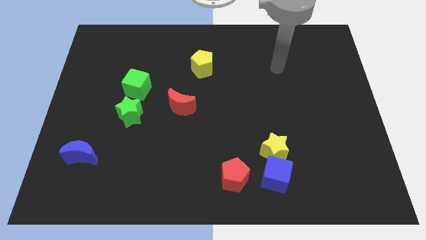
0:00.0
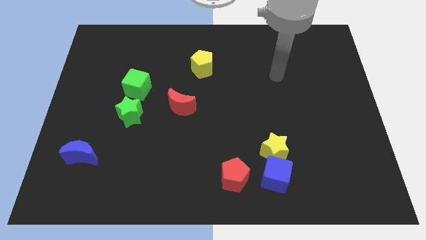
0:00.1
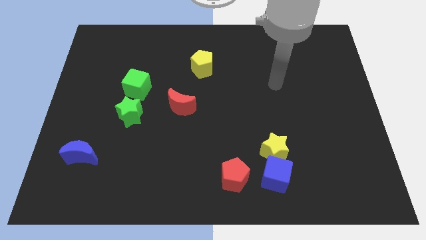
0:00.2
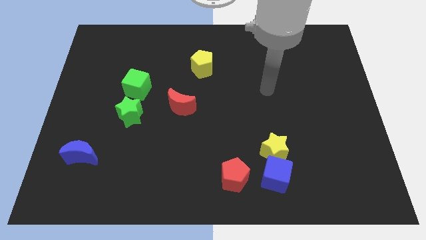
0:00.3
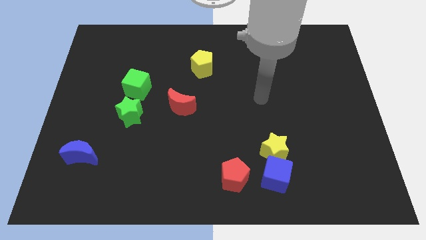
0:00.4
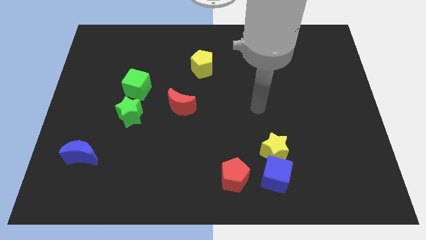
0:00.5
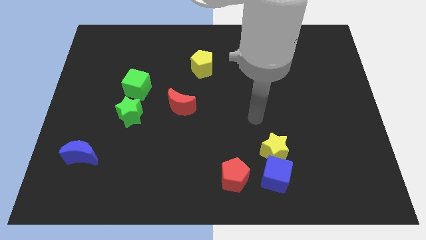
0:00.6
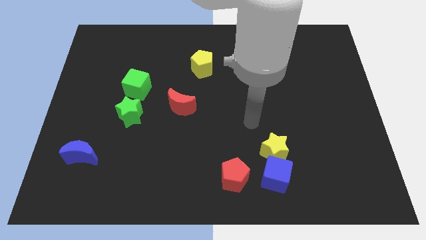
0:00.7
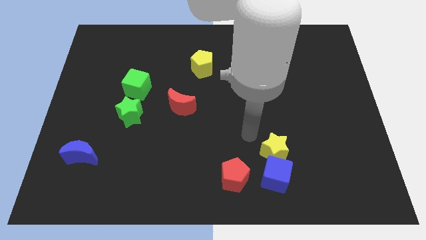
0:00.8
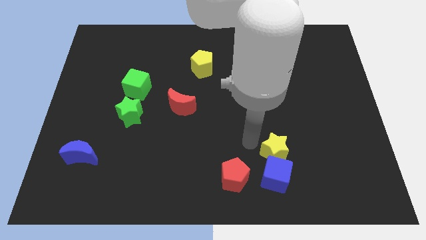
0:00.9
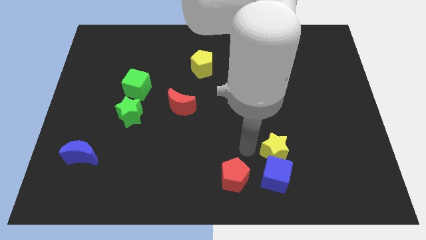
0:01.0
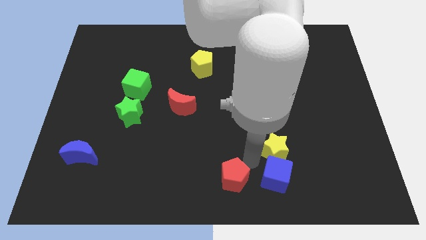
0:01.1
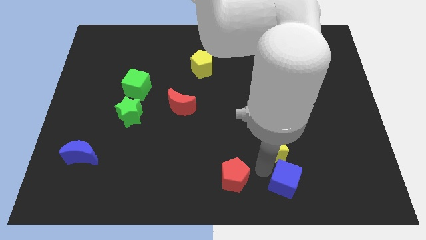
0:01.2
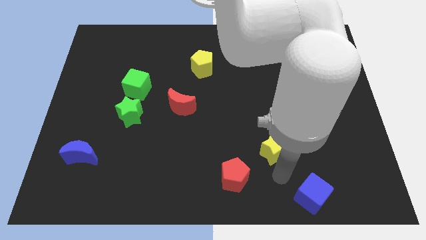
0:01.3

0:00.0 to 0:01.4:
separate the yellow star from the blue cube

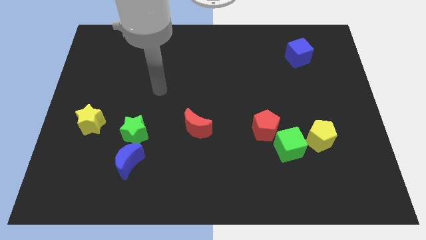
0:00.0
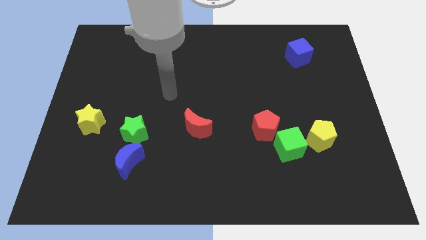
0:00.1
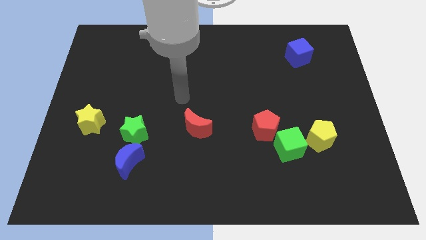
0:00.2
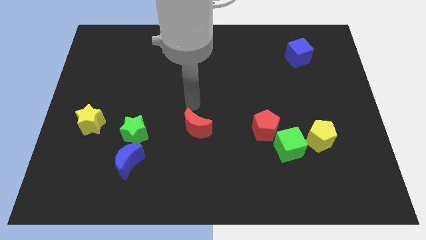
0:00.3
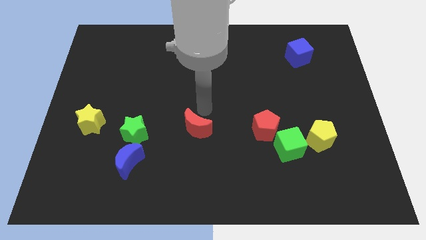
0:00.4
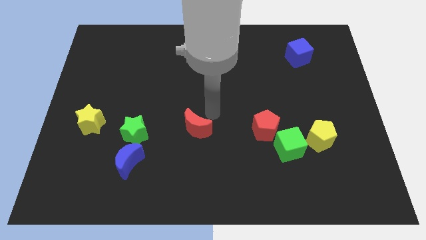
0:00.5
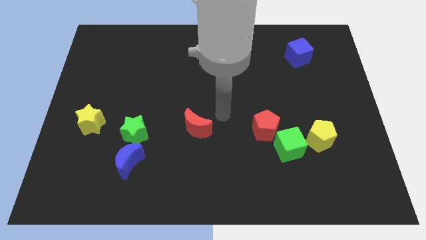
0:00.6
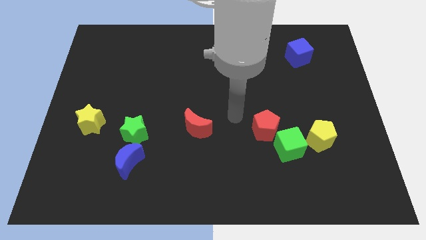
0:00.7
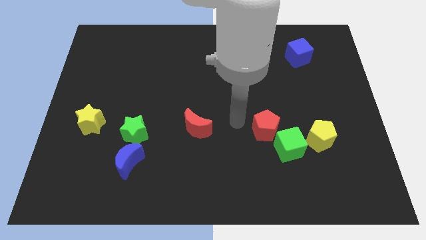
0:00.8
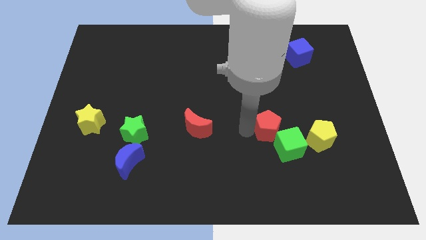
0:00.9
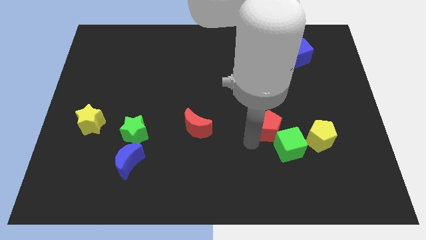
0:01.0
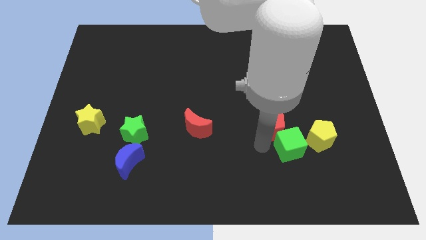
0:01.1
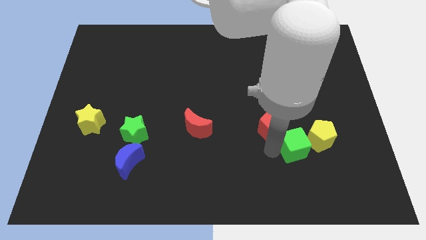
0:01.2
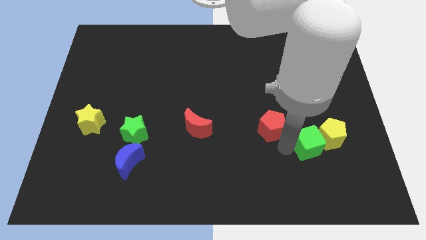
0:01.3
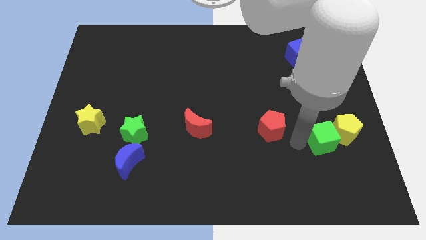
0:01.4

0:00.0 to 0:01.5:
pull the red pentagon apart from the green cube

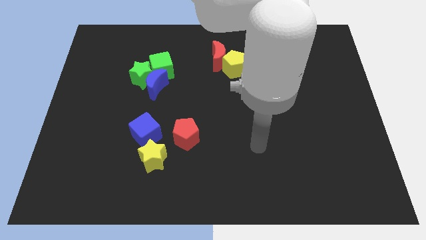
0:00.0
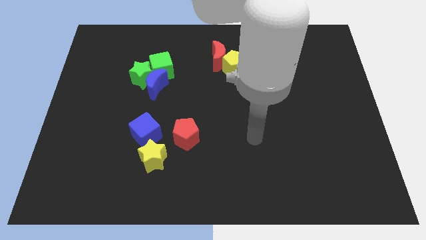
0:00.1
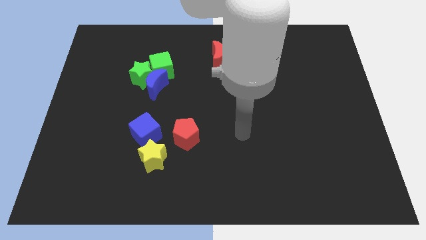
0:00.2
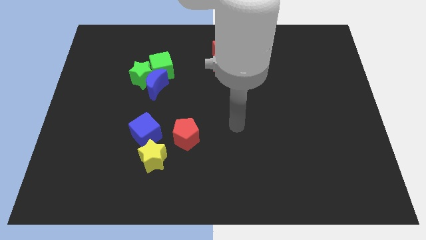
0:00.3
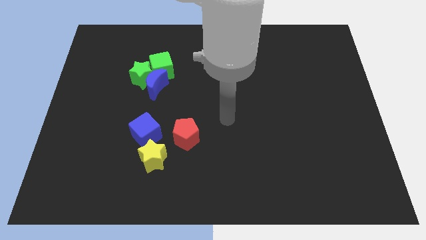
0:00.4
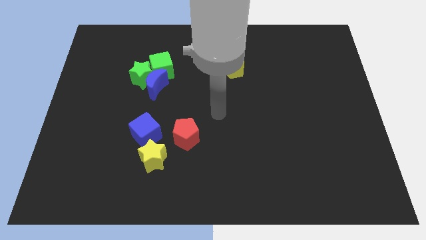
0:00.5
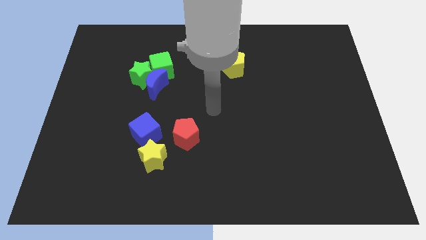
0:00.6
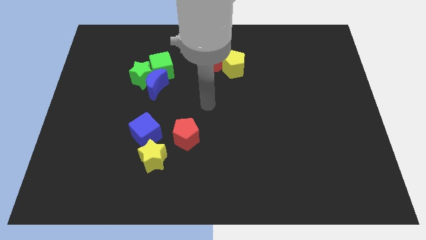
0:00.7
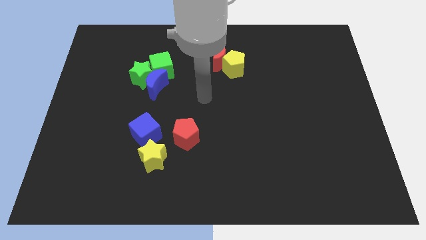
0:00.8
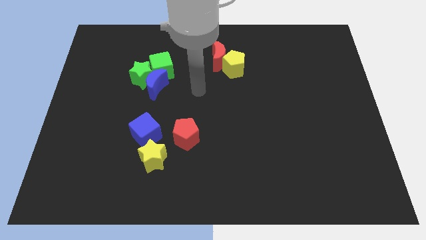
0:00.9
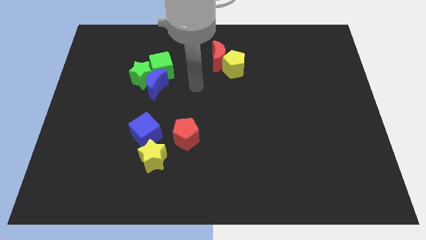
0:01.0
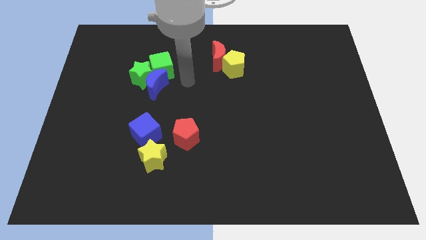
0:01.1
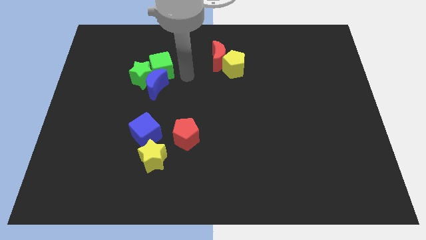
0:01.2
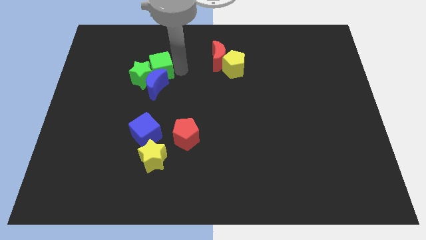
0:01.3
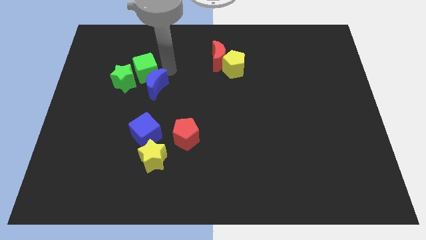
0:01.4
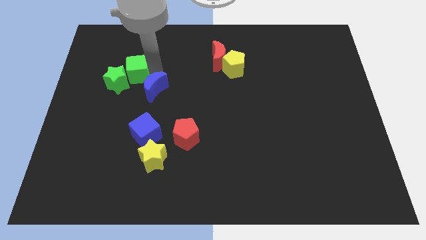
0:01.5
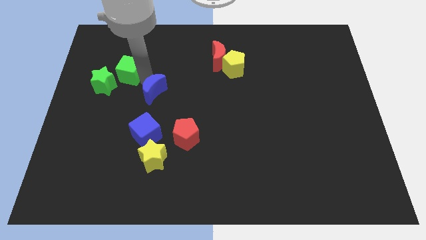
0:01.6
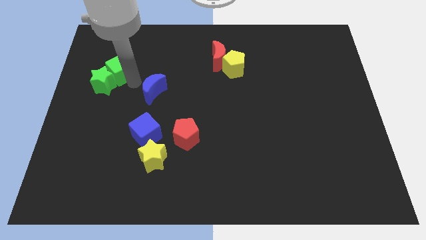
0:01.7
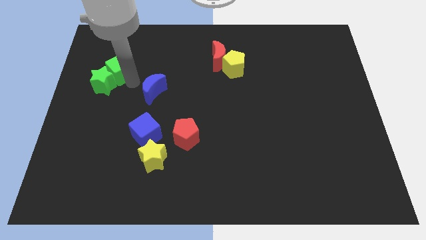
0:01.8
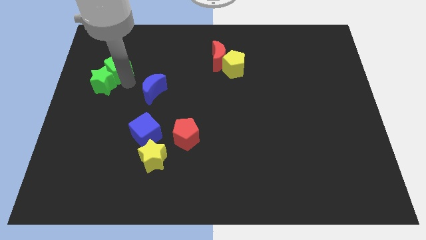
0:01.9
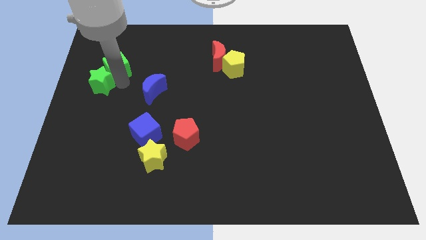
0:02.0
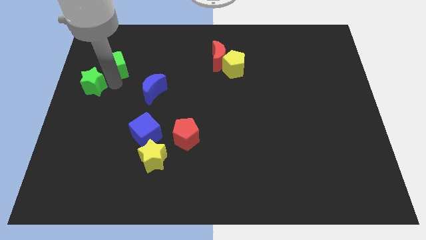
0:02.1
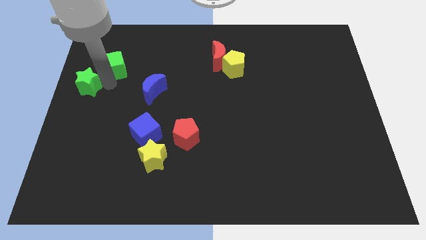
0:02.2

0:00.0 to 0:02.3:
pull the green star apart from the blue moon and green cube

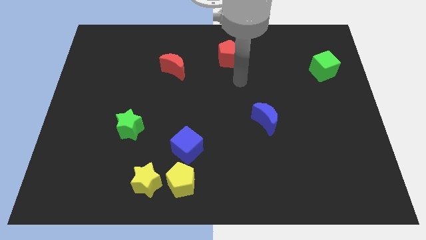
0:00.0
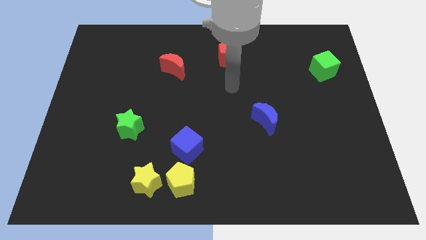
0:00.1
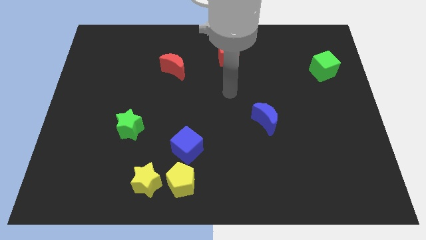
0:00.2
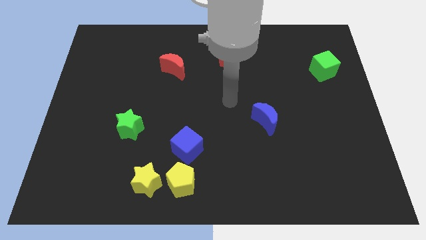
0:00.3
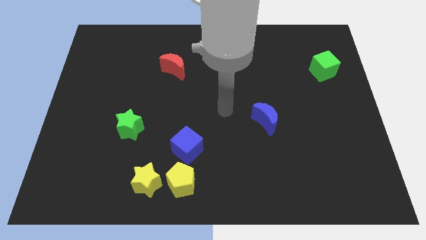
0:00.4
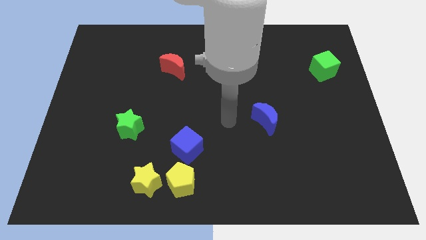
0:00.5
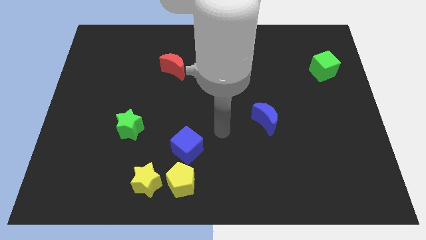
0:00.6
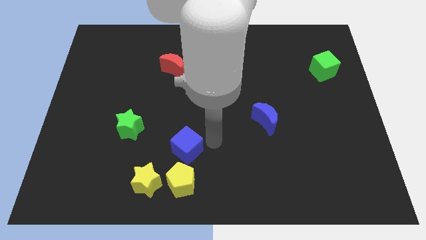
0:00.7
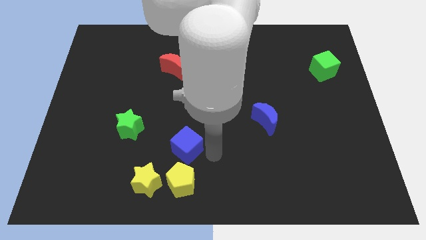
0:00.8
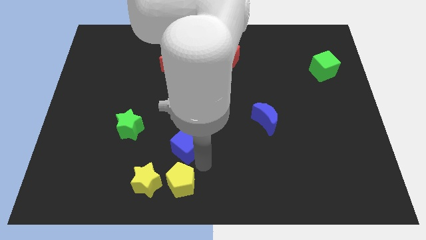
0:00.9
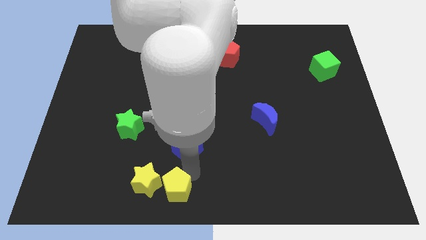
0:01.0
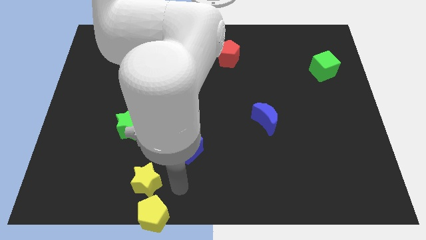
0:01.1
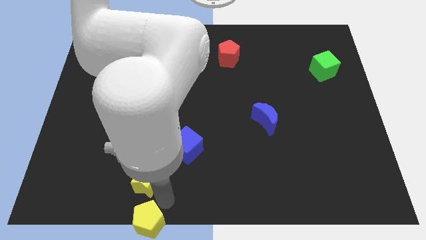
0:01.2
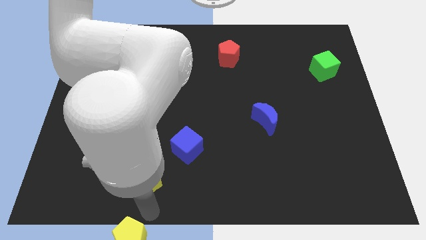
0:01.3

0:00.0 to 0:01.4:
separate the yellow star from the yellow pentagon

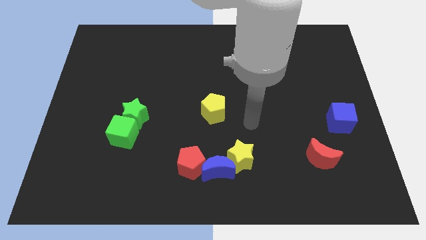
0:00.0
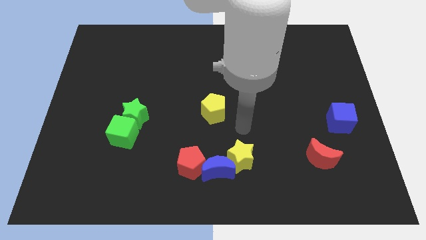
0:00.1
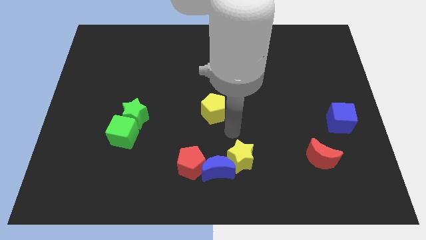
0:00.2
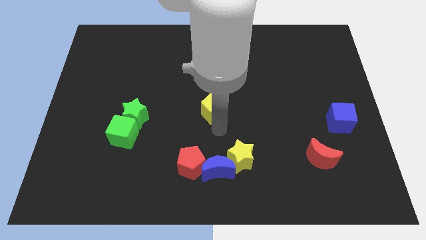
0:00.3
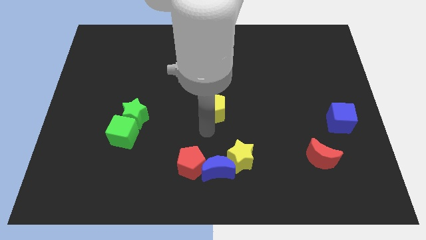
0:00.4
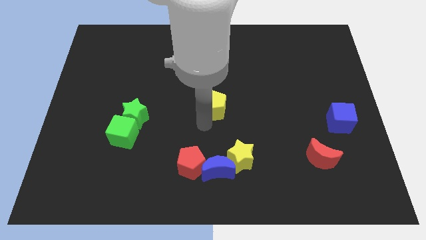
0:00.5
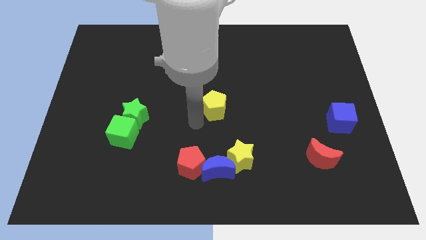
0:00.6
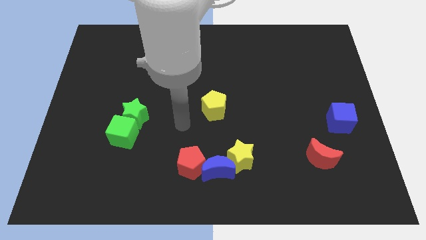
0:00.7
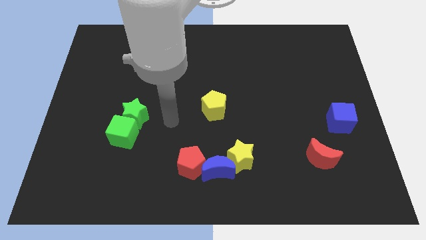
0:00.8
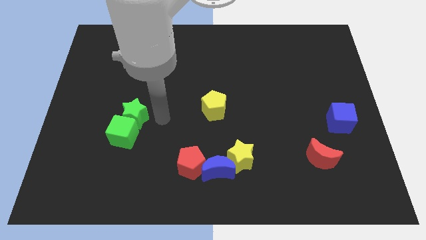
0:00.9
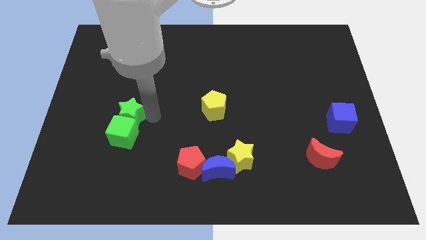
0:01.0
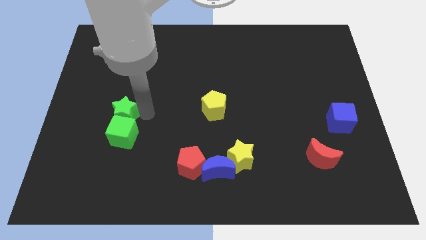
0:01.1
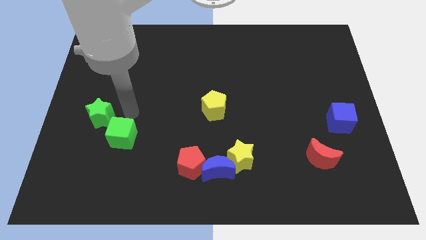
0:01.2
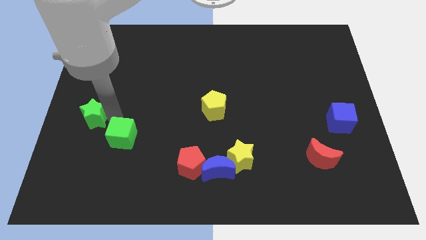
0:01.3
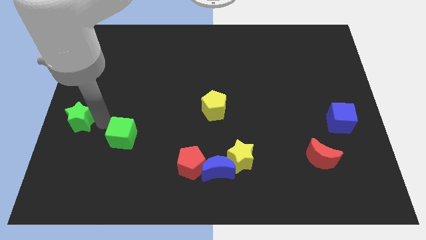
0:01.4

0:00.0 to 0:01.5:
move the green cube away from the green star

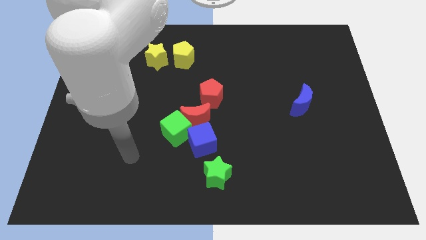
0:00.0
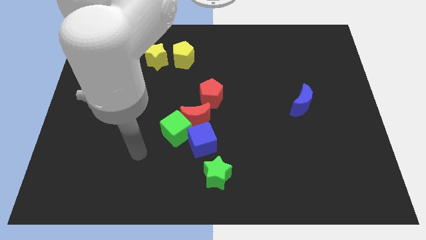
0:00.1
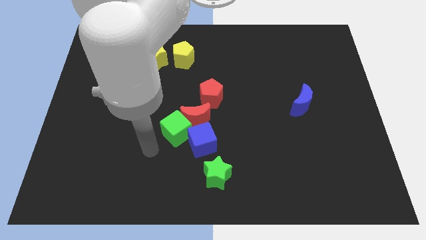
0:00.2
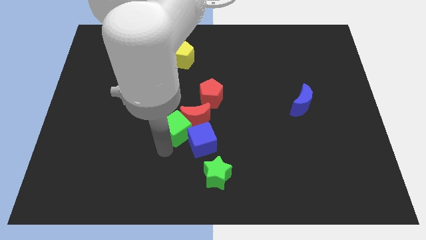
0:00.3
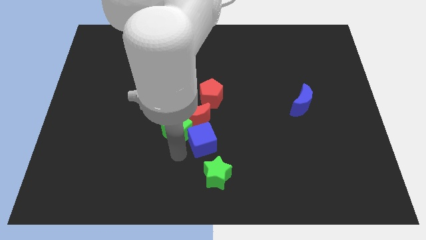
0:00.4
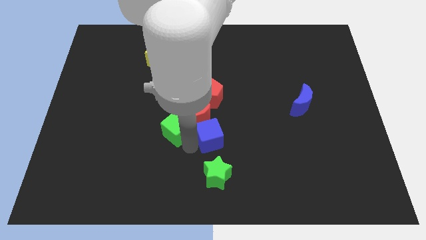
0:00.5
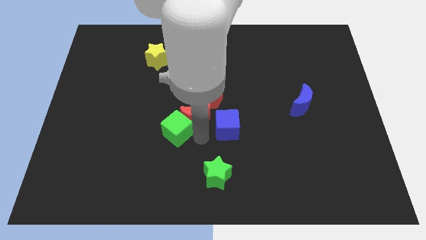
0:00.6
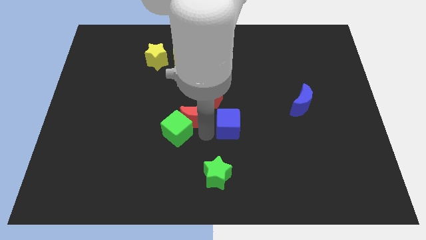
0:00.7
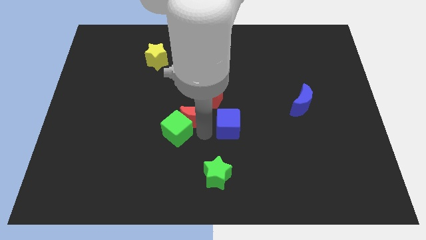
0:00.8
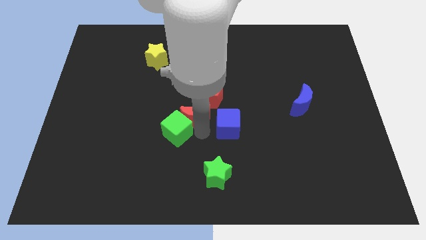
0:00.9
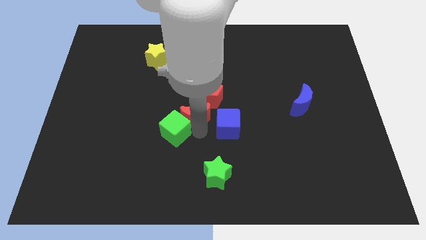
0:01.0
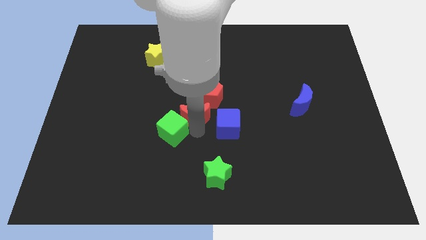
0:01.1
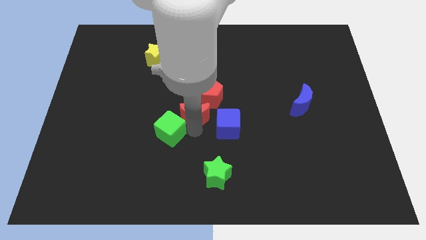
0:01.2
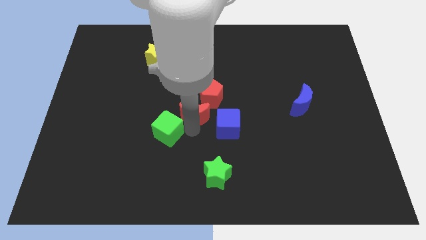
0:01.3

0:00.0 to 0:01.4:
pull the green cube apart from the red moon and blue cube
